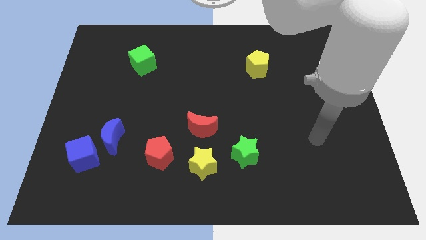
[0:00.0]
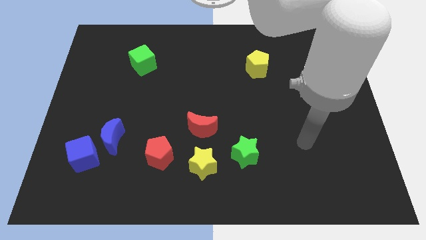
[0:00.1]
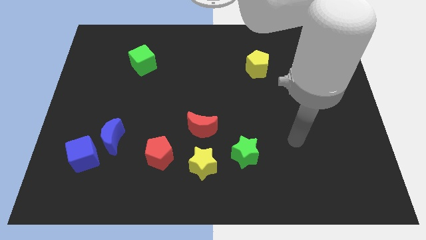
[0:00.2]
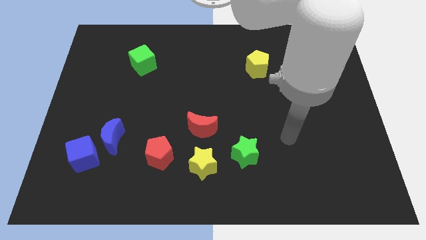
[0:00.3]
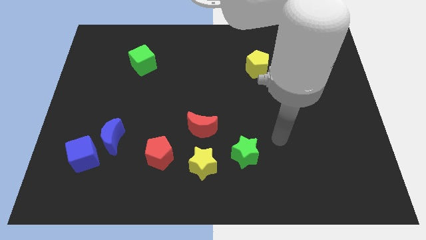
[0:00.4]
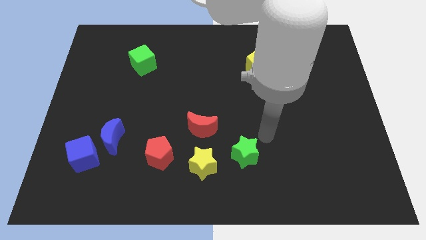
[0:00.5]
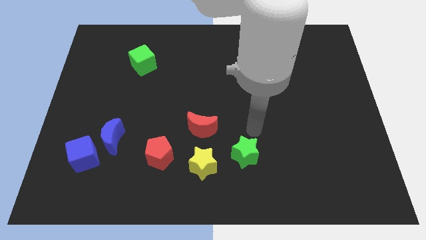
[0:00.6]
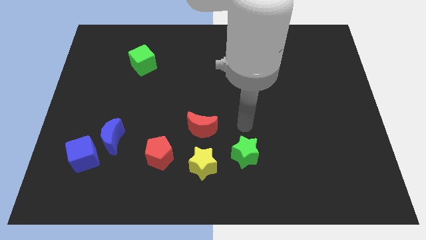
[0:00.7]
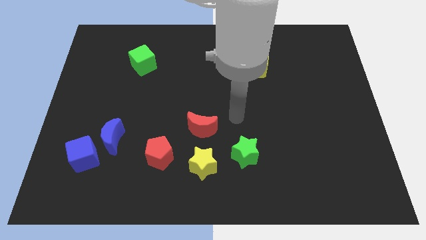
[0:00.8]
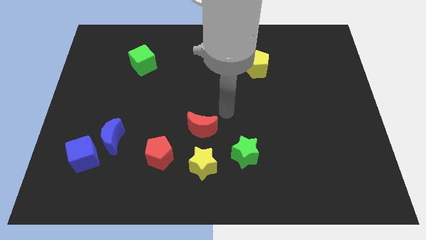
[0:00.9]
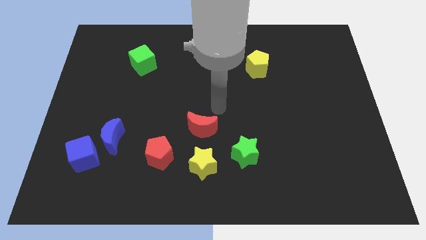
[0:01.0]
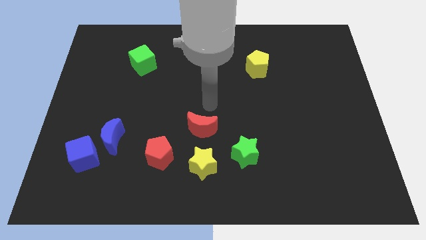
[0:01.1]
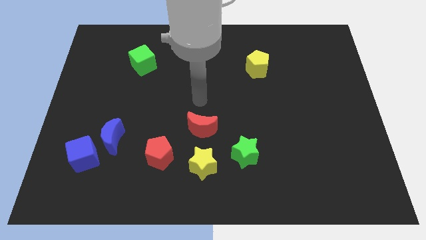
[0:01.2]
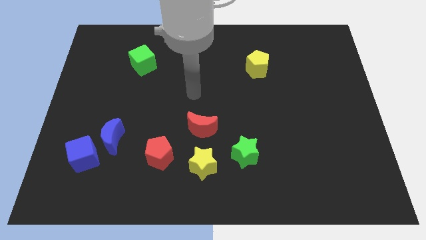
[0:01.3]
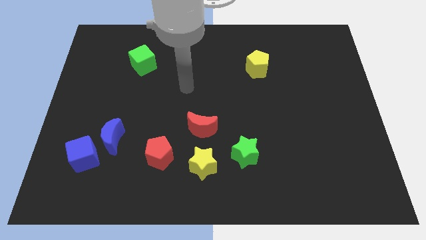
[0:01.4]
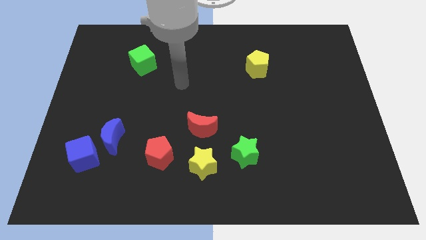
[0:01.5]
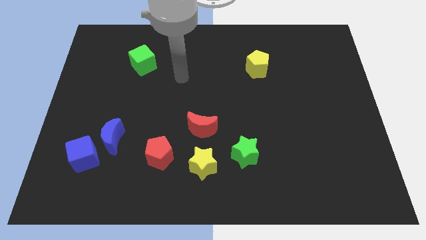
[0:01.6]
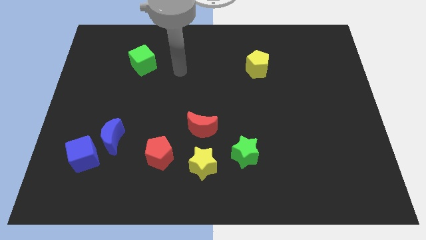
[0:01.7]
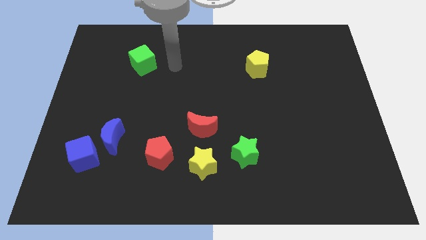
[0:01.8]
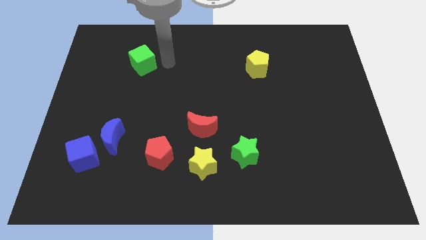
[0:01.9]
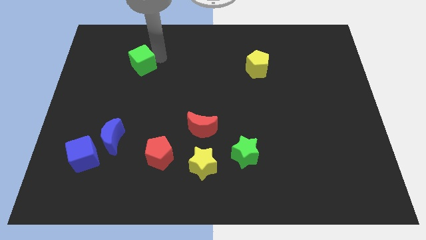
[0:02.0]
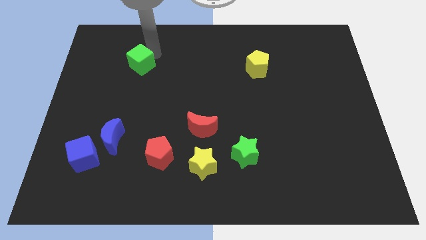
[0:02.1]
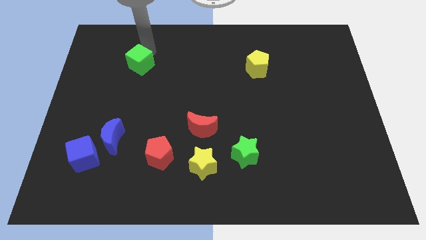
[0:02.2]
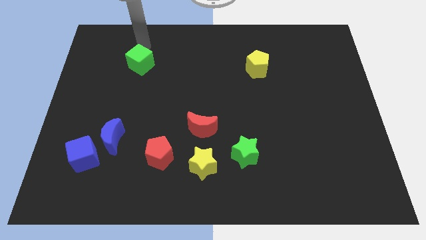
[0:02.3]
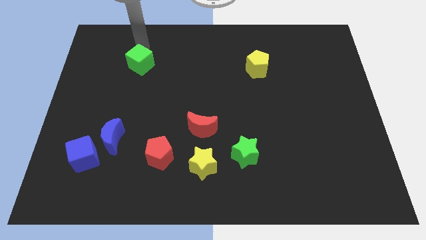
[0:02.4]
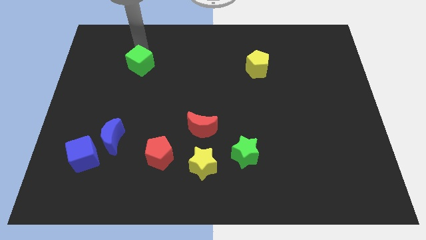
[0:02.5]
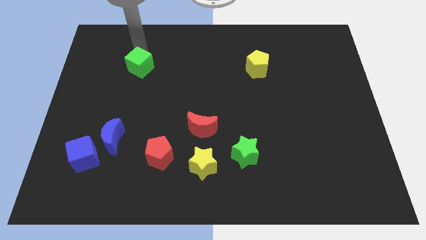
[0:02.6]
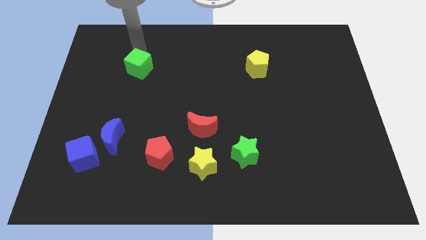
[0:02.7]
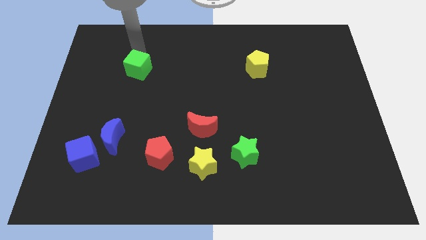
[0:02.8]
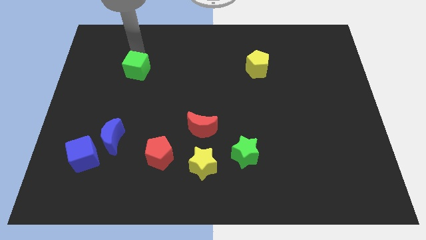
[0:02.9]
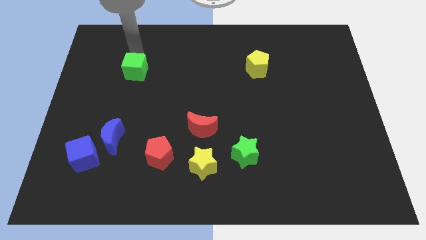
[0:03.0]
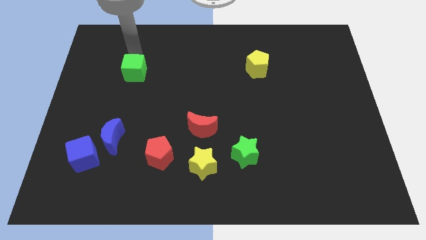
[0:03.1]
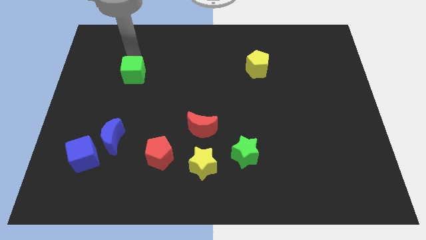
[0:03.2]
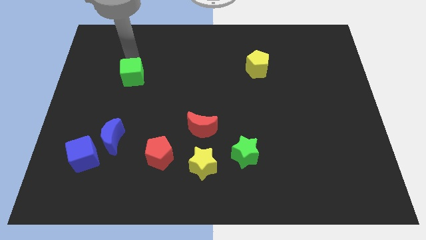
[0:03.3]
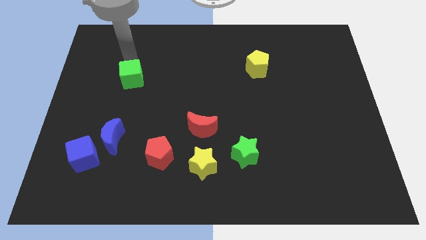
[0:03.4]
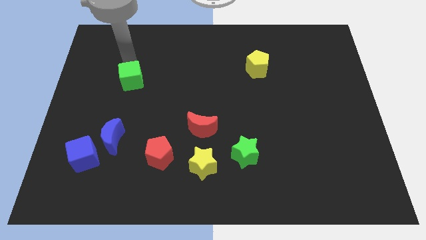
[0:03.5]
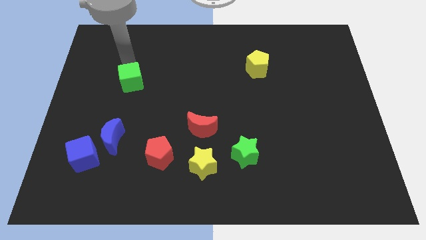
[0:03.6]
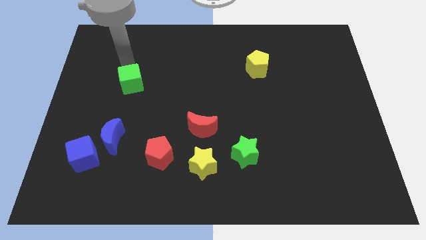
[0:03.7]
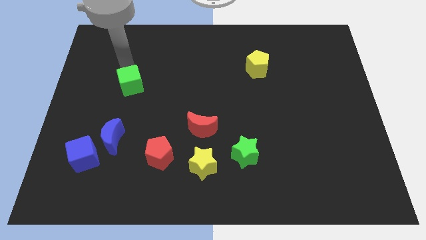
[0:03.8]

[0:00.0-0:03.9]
push the green cube downwards somewhat

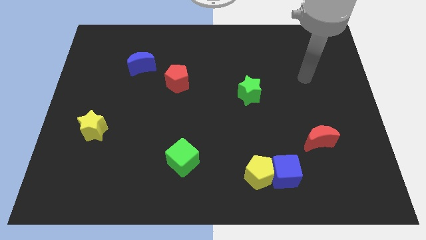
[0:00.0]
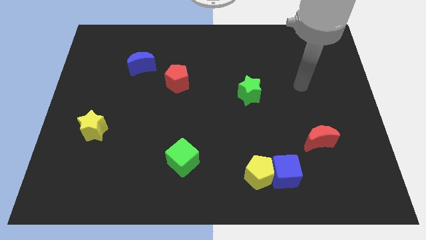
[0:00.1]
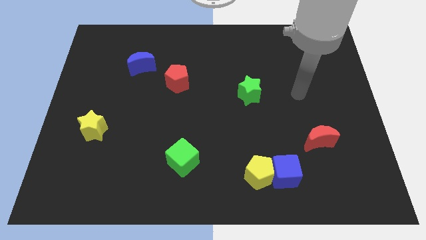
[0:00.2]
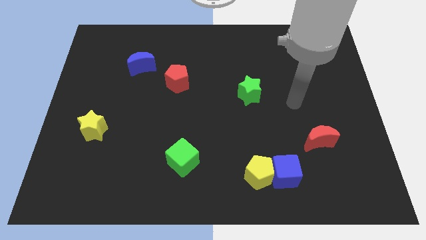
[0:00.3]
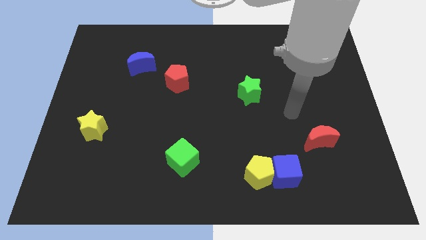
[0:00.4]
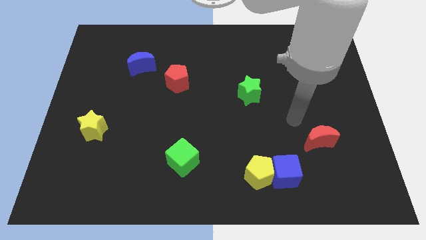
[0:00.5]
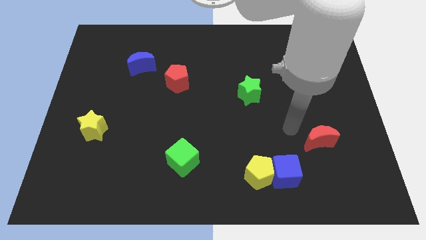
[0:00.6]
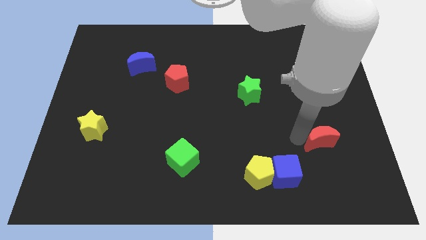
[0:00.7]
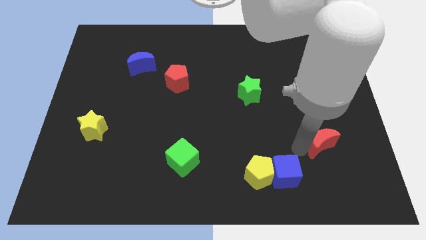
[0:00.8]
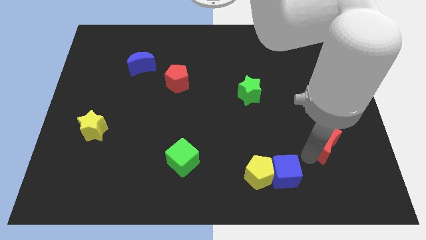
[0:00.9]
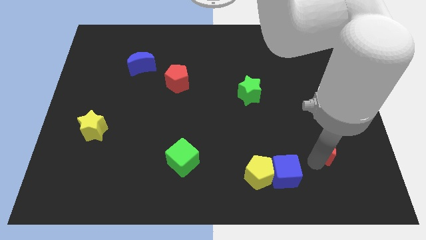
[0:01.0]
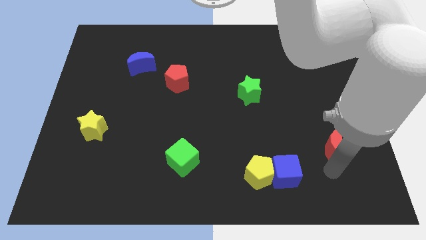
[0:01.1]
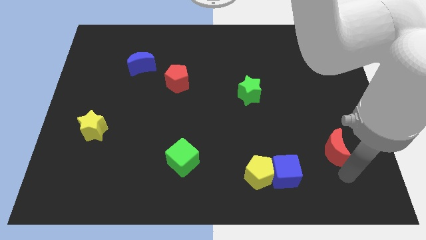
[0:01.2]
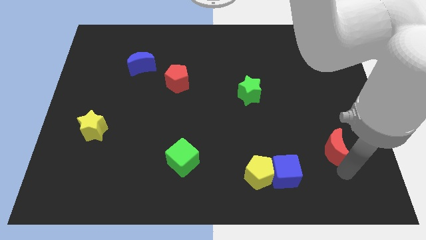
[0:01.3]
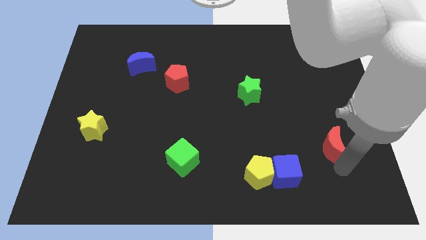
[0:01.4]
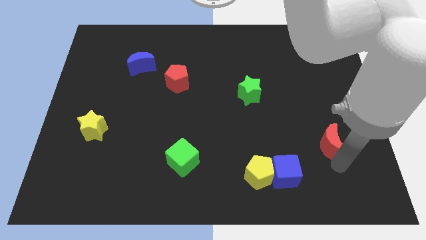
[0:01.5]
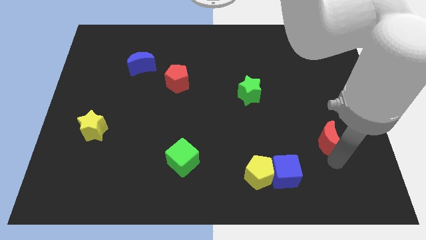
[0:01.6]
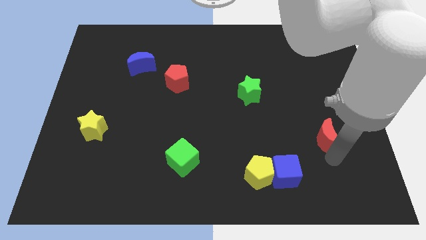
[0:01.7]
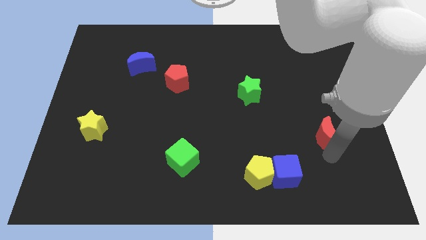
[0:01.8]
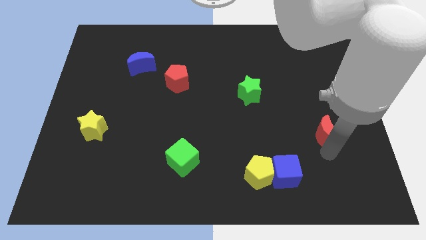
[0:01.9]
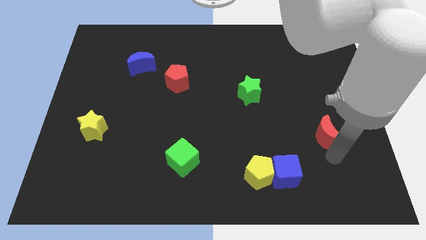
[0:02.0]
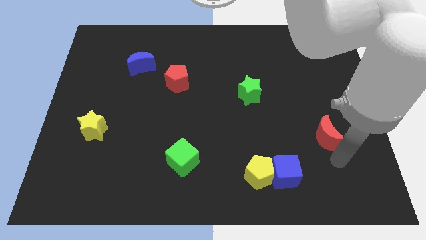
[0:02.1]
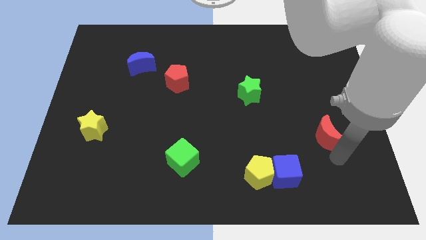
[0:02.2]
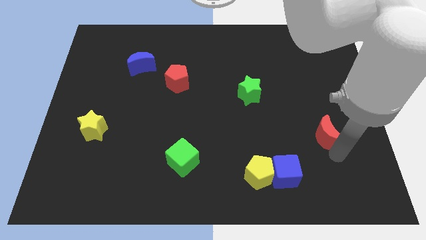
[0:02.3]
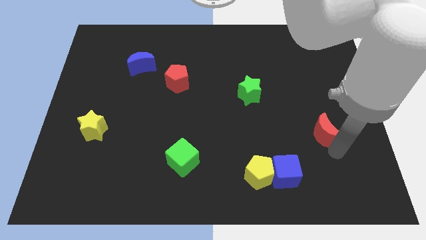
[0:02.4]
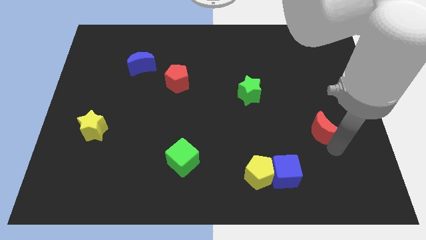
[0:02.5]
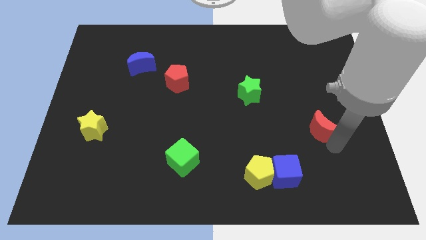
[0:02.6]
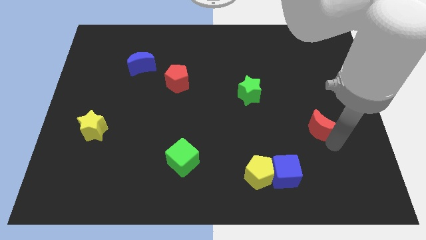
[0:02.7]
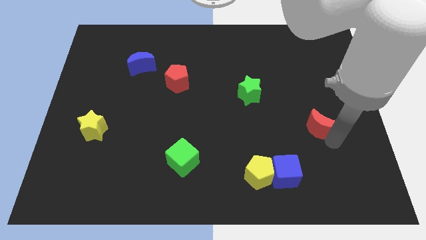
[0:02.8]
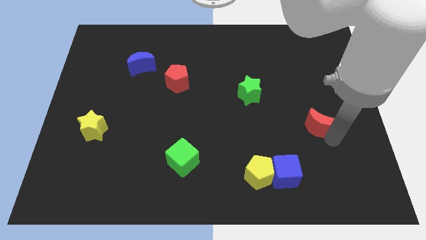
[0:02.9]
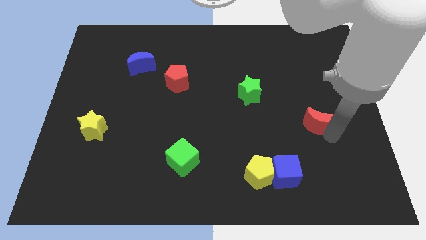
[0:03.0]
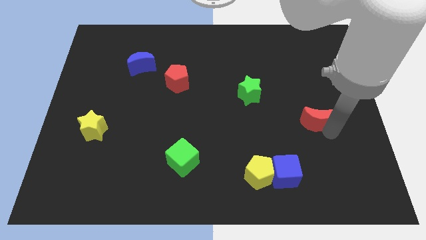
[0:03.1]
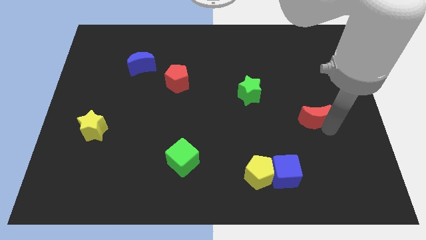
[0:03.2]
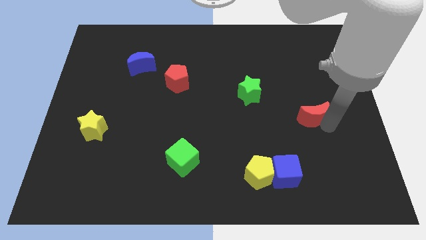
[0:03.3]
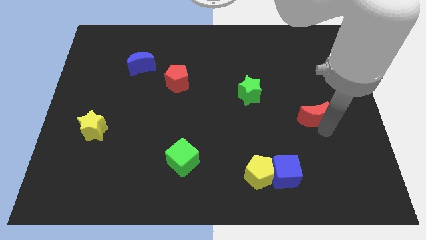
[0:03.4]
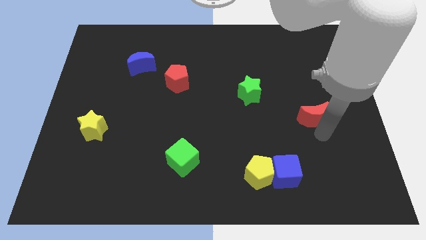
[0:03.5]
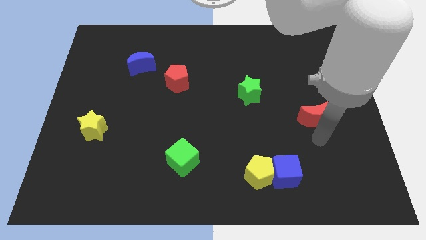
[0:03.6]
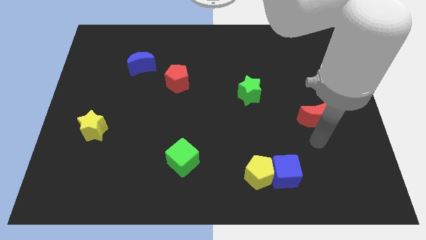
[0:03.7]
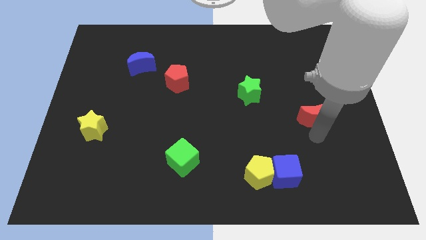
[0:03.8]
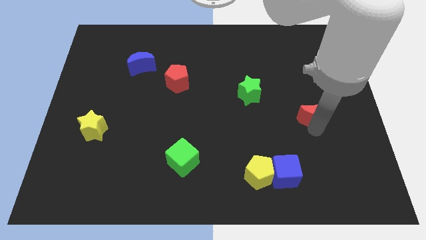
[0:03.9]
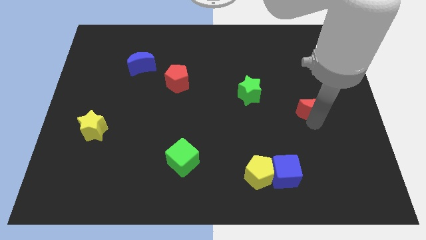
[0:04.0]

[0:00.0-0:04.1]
push the red moon slightly up

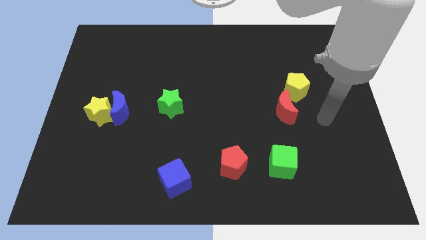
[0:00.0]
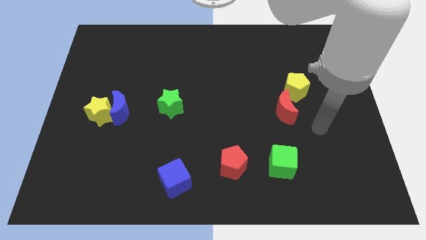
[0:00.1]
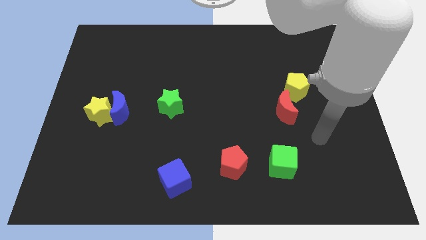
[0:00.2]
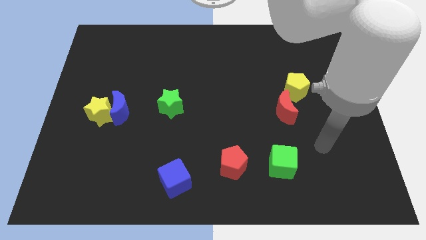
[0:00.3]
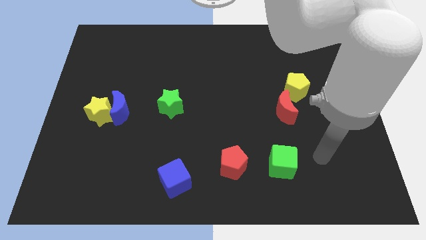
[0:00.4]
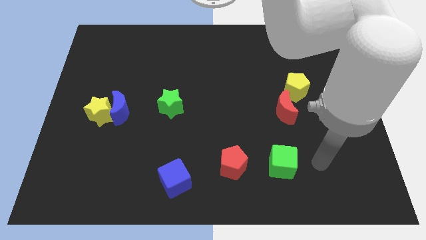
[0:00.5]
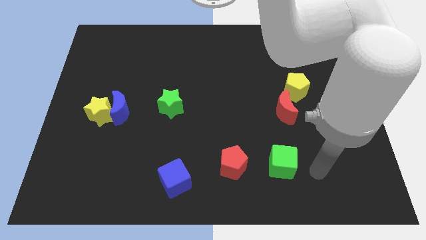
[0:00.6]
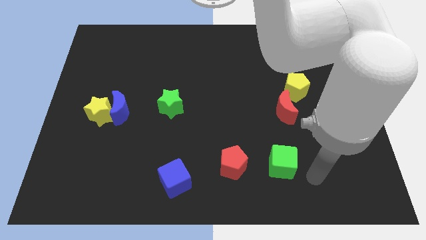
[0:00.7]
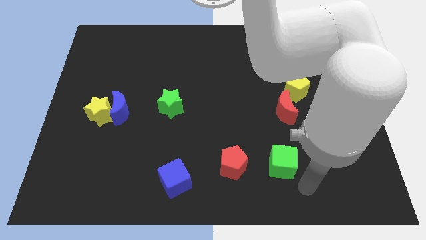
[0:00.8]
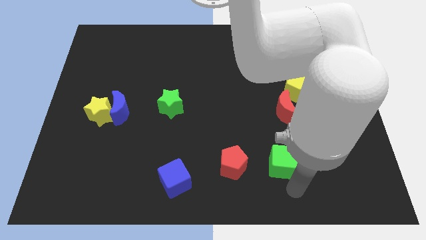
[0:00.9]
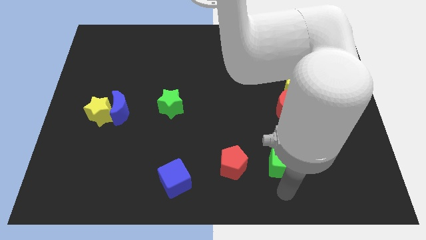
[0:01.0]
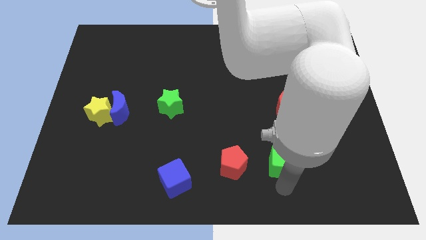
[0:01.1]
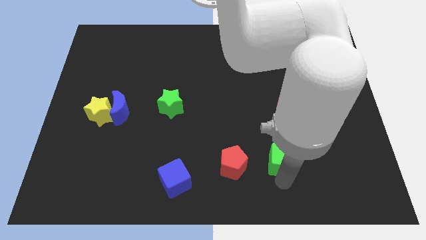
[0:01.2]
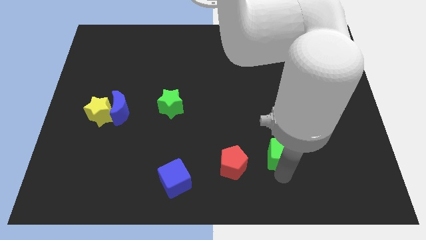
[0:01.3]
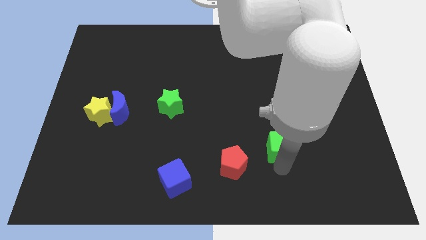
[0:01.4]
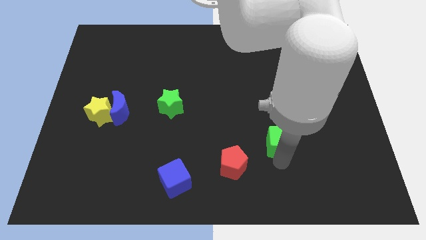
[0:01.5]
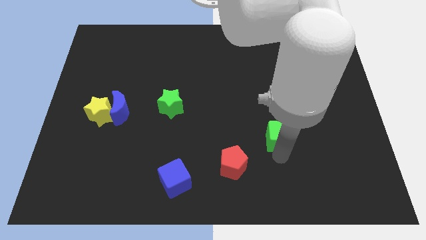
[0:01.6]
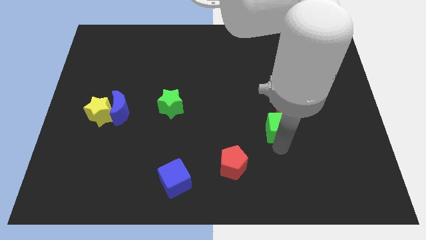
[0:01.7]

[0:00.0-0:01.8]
push the green cube upwards a bit
